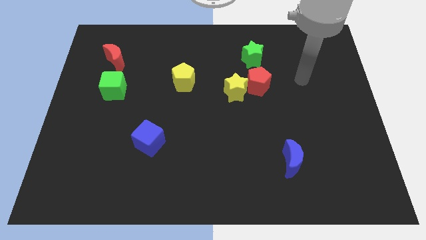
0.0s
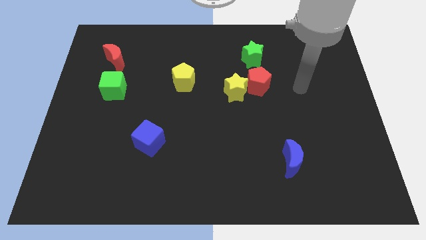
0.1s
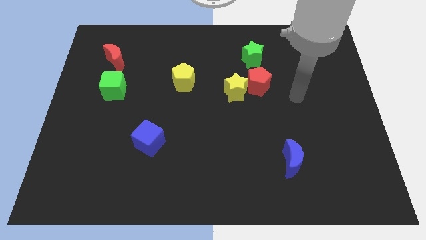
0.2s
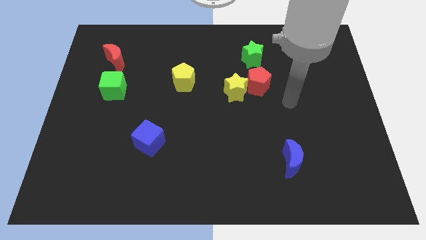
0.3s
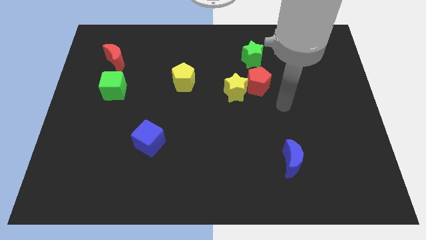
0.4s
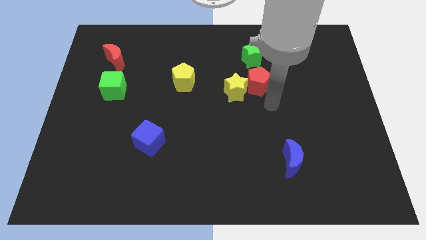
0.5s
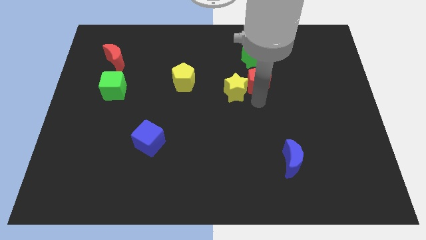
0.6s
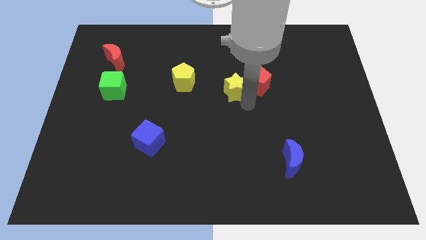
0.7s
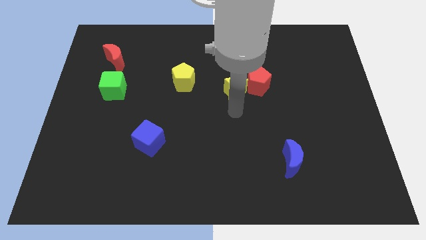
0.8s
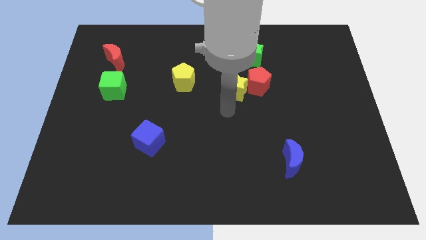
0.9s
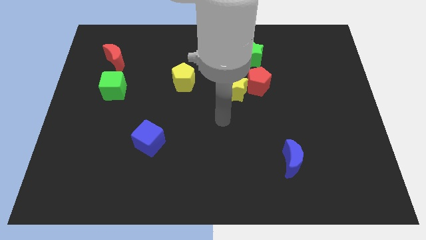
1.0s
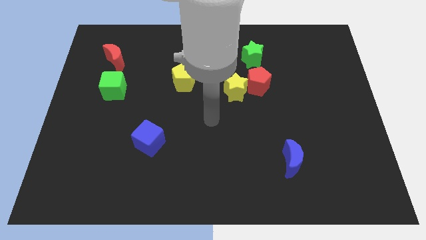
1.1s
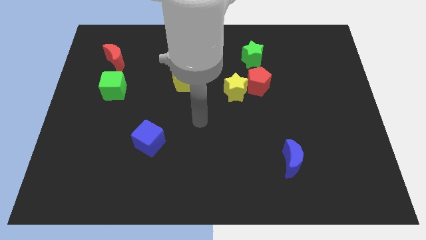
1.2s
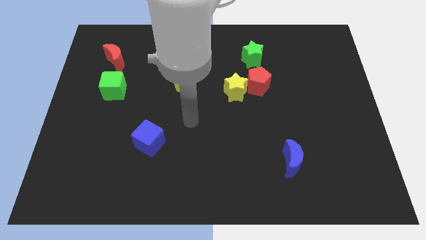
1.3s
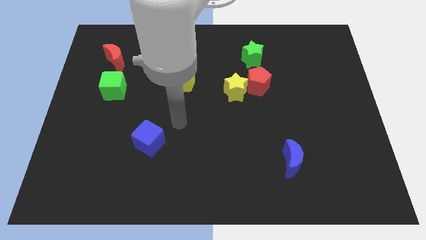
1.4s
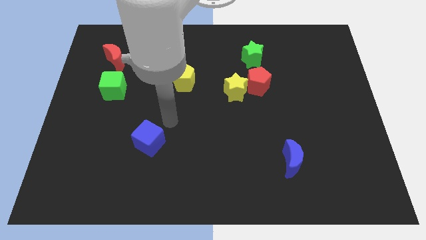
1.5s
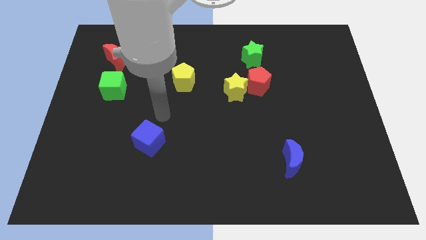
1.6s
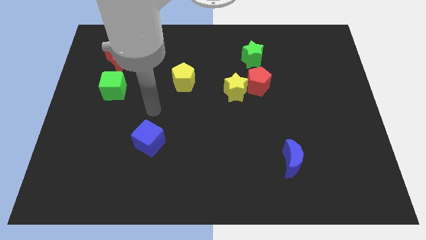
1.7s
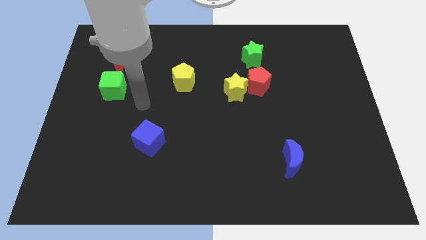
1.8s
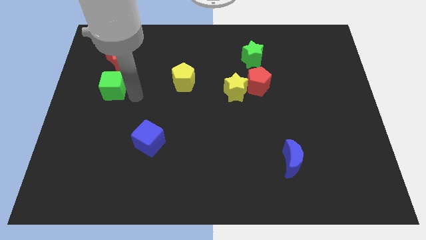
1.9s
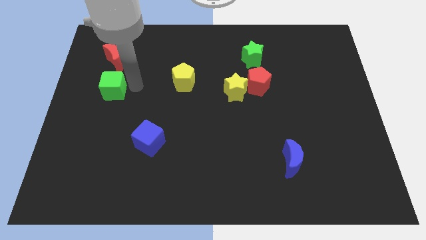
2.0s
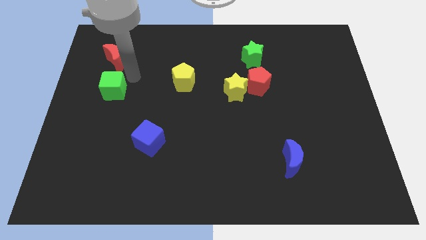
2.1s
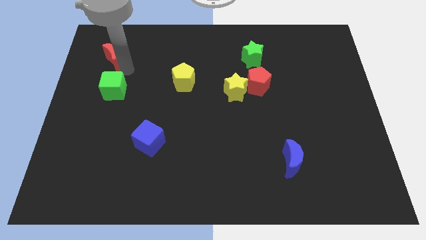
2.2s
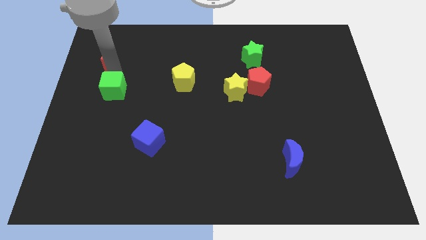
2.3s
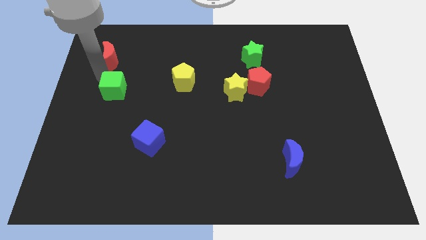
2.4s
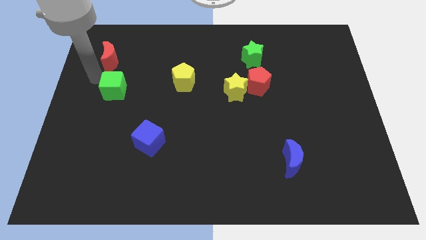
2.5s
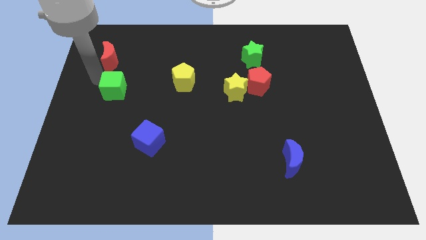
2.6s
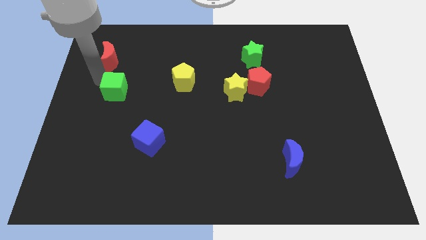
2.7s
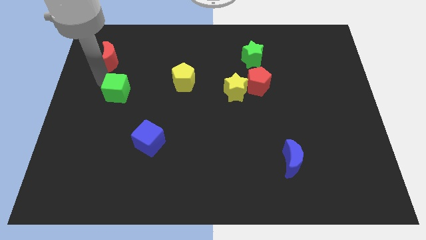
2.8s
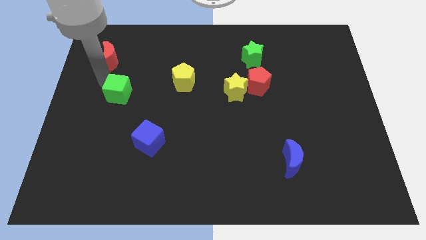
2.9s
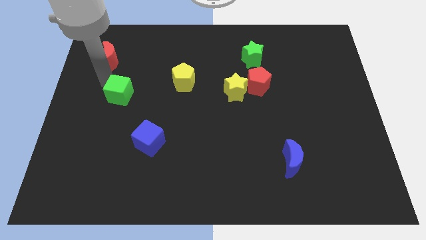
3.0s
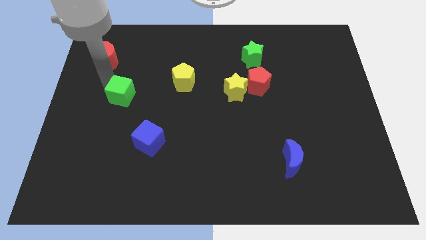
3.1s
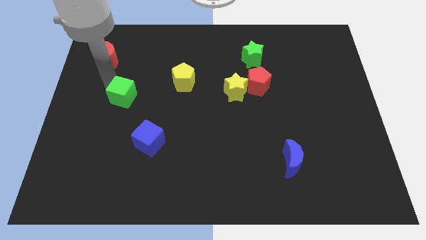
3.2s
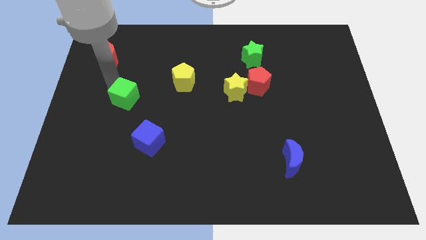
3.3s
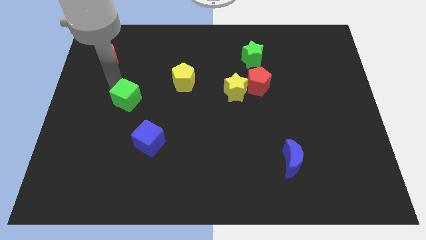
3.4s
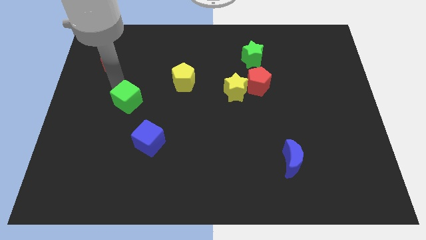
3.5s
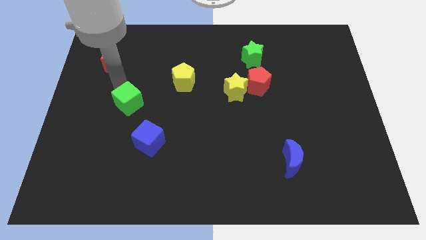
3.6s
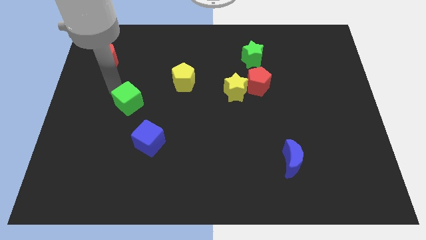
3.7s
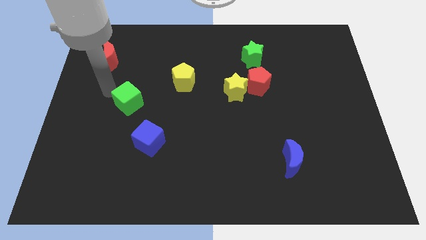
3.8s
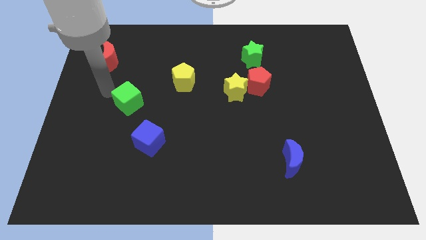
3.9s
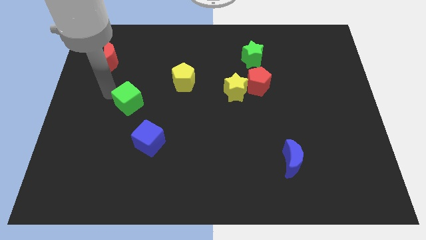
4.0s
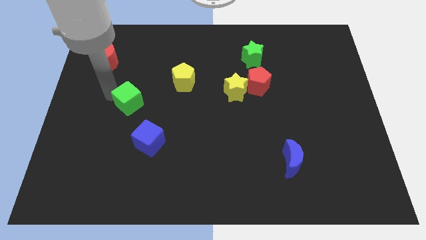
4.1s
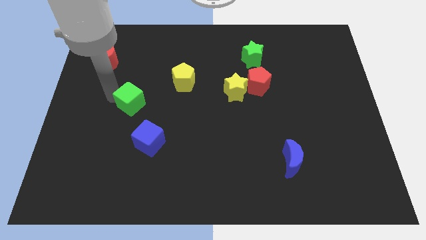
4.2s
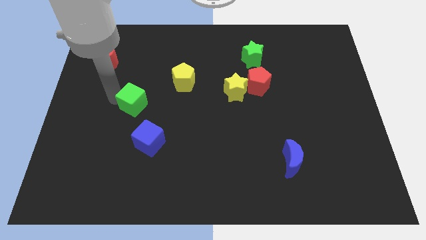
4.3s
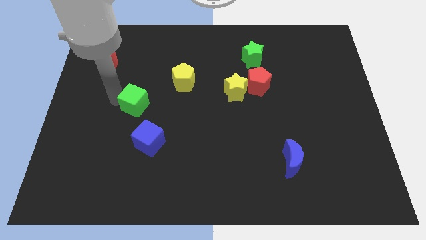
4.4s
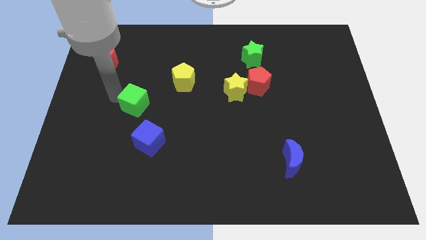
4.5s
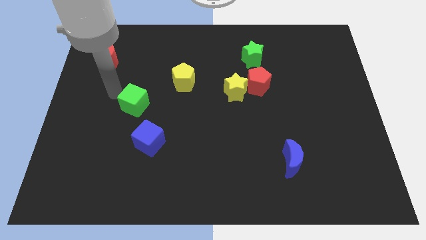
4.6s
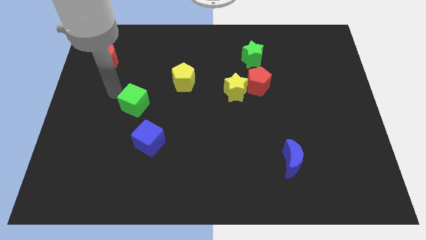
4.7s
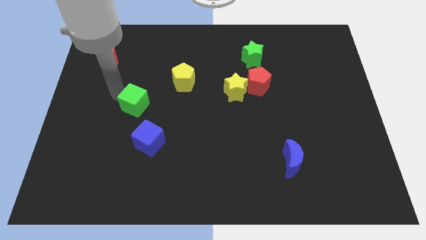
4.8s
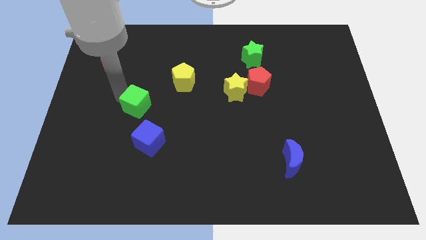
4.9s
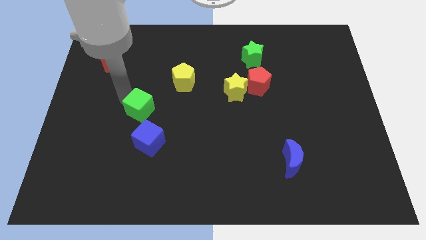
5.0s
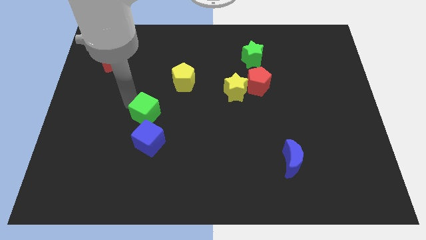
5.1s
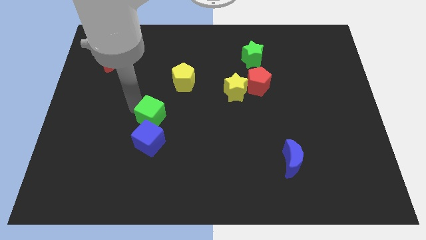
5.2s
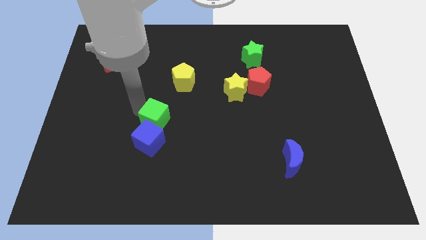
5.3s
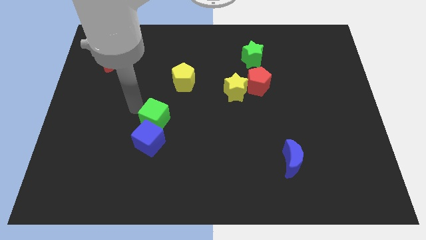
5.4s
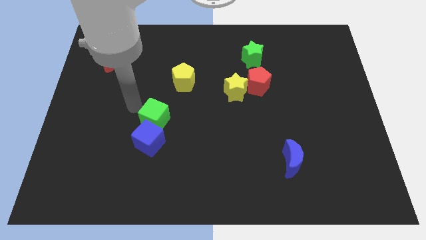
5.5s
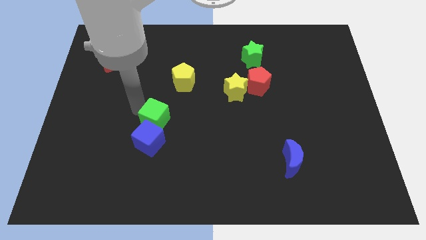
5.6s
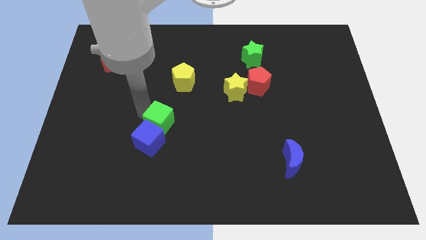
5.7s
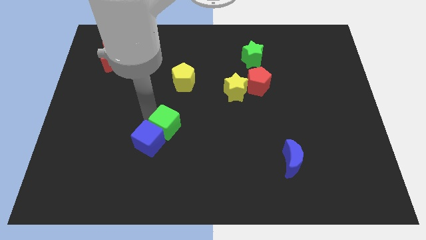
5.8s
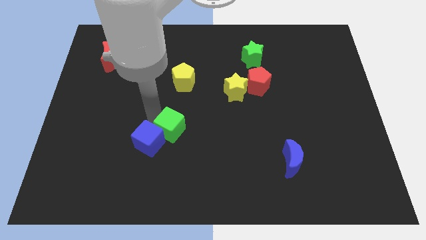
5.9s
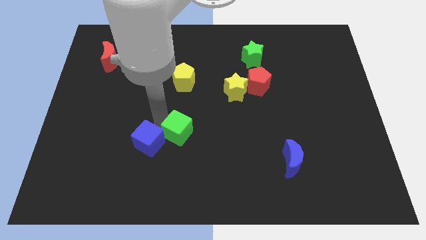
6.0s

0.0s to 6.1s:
push the green cube down and then to the right

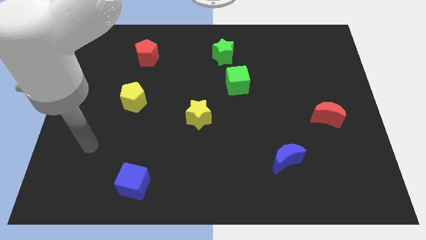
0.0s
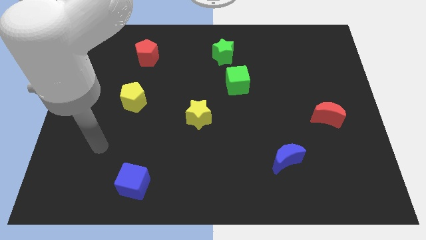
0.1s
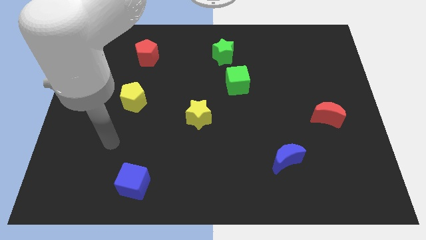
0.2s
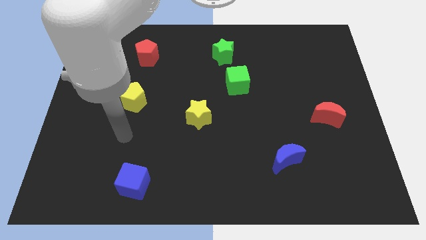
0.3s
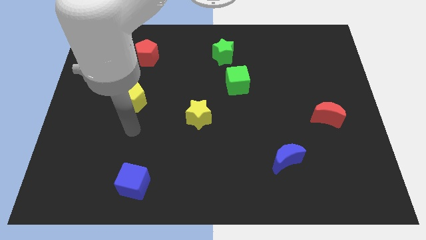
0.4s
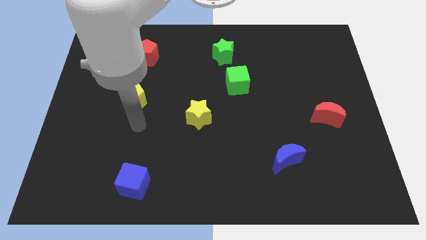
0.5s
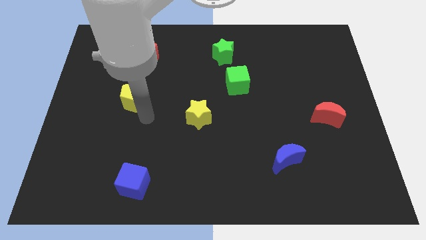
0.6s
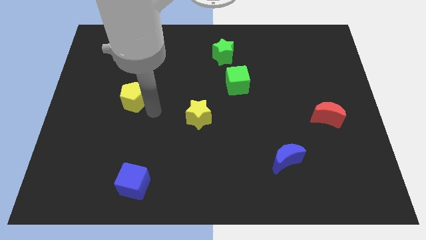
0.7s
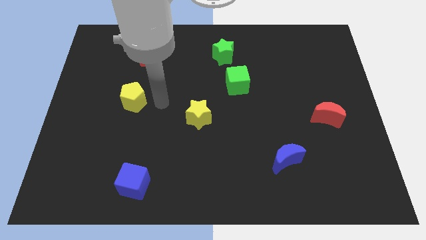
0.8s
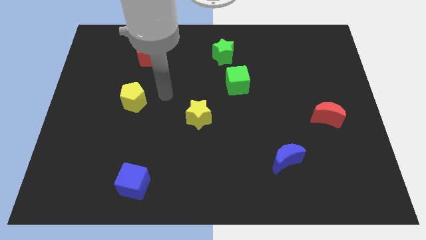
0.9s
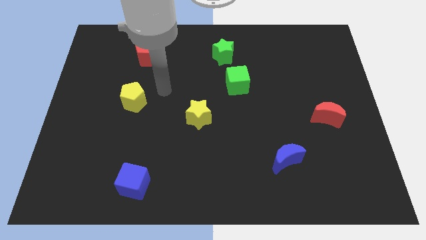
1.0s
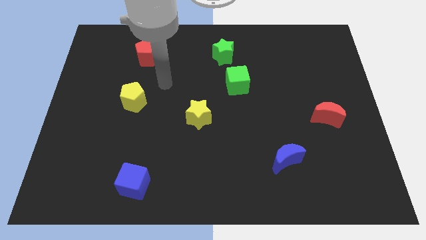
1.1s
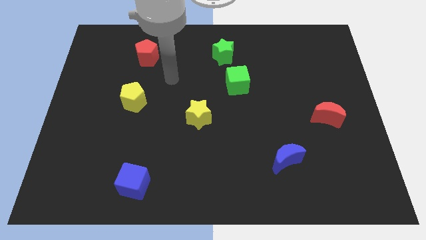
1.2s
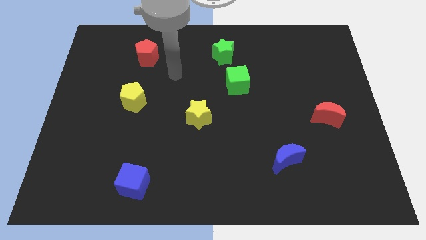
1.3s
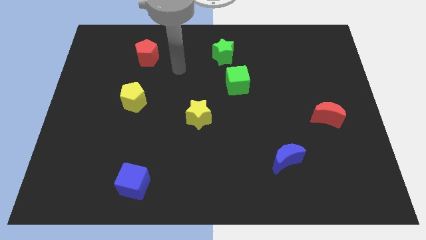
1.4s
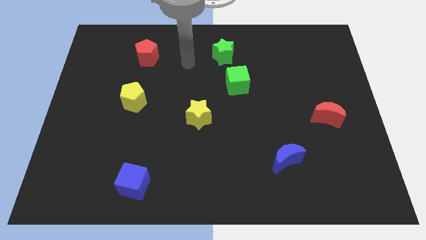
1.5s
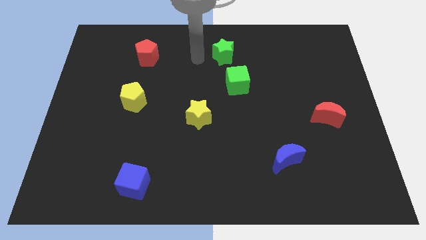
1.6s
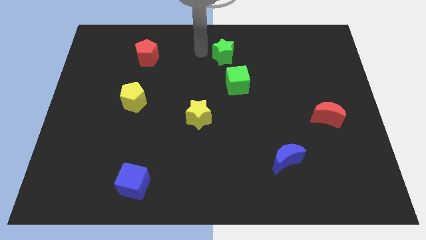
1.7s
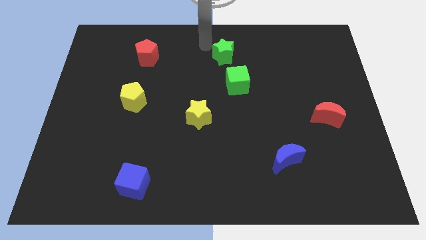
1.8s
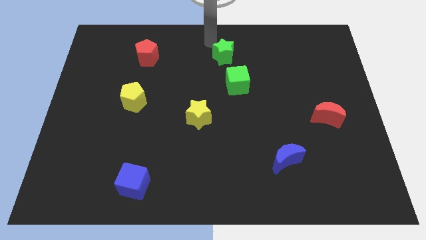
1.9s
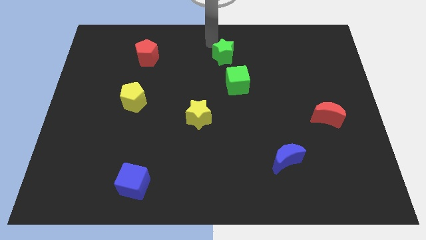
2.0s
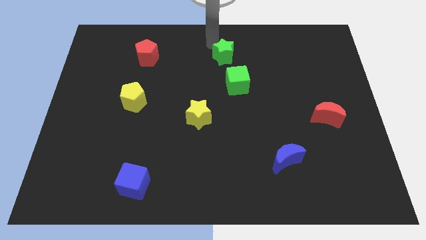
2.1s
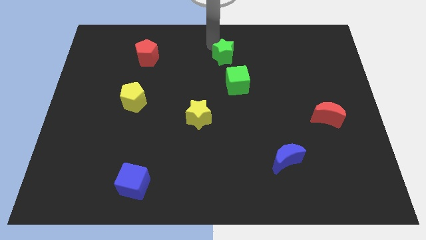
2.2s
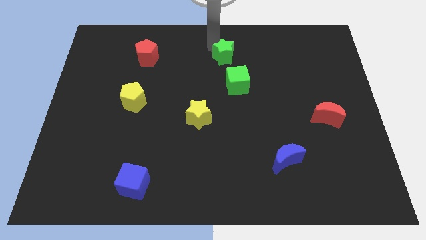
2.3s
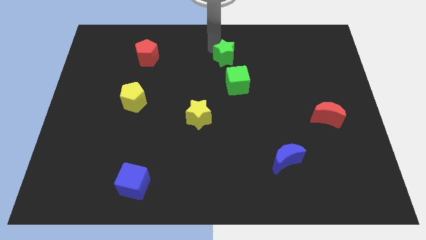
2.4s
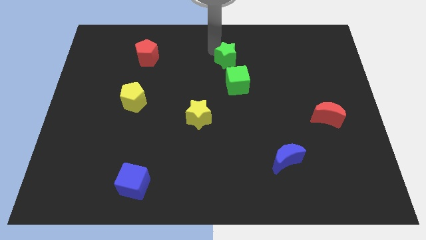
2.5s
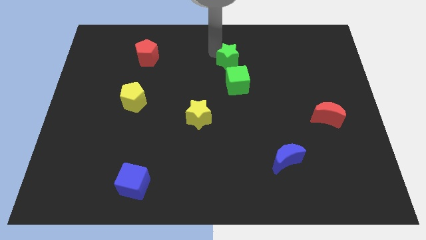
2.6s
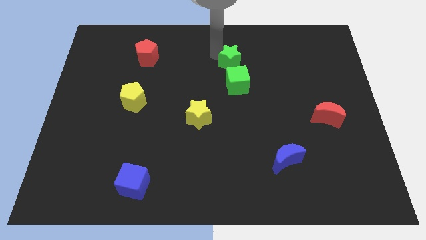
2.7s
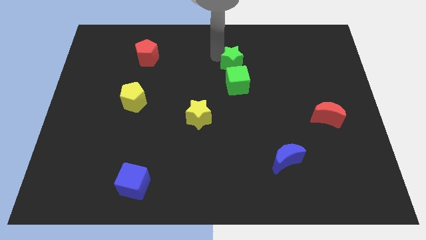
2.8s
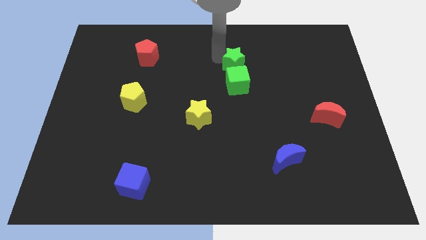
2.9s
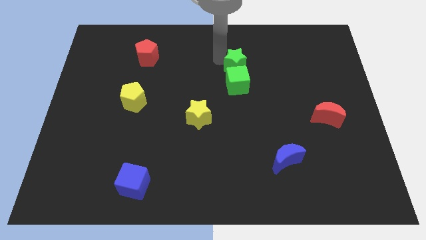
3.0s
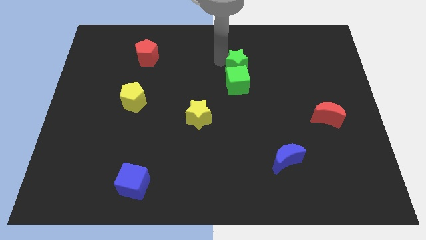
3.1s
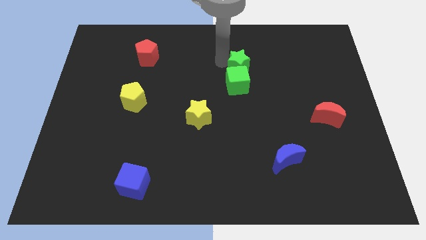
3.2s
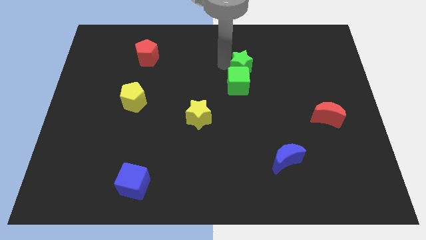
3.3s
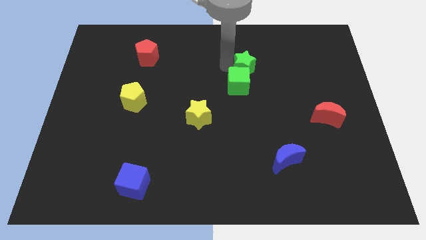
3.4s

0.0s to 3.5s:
move the green star down and right diagonally slightly
